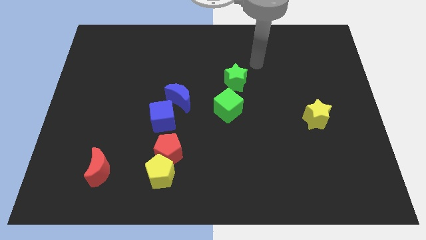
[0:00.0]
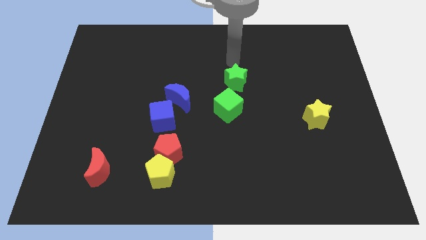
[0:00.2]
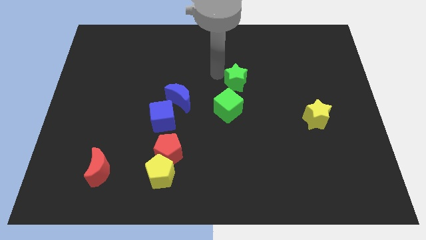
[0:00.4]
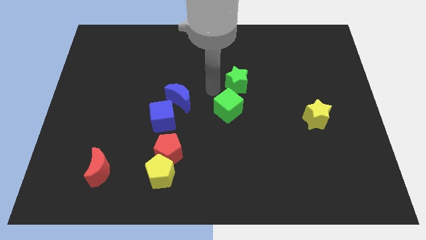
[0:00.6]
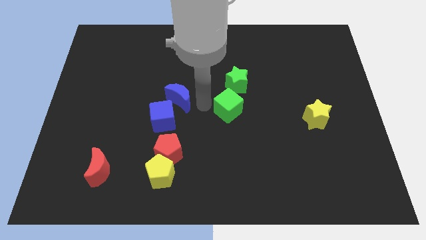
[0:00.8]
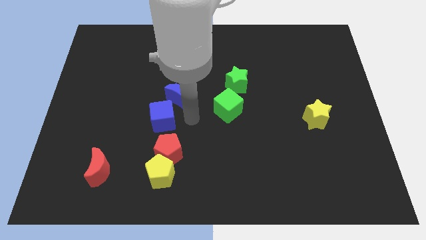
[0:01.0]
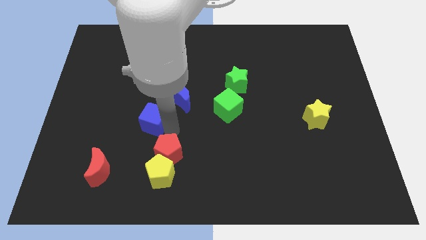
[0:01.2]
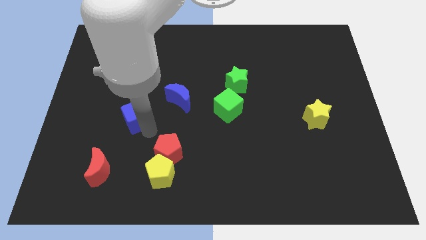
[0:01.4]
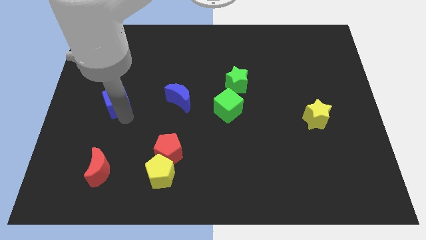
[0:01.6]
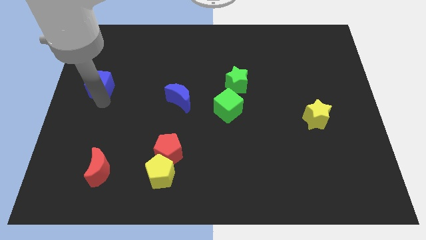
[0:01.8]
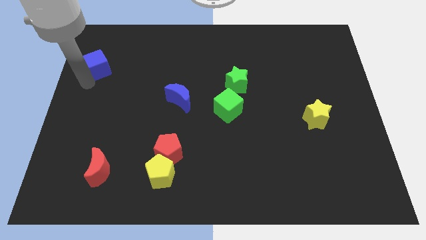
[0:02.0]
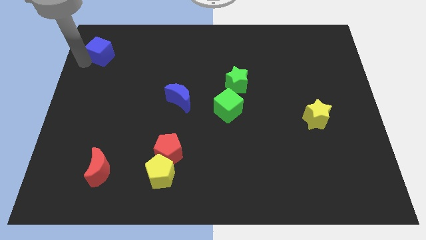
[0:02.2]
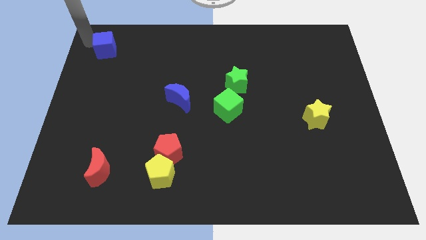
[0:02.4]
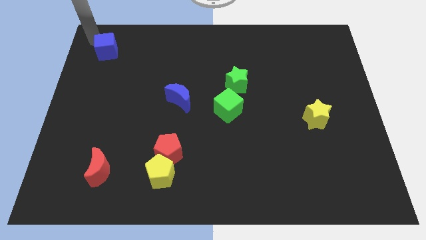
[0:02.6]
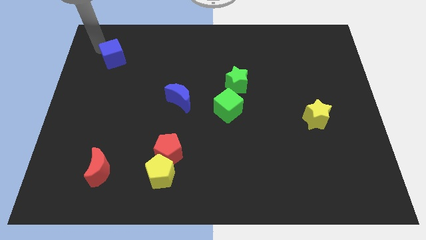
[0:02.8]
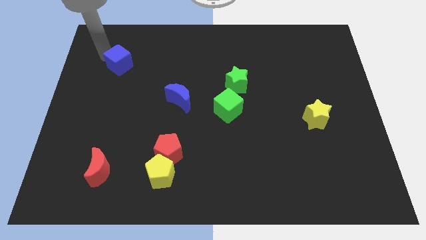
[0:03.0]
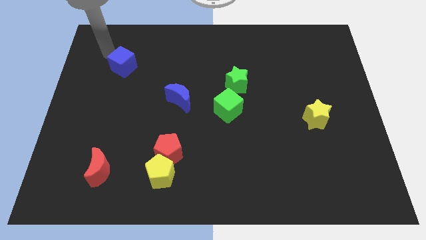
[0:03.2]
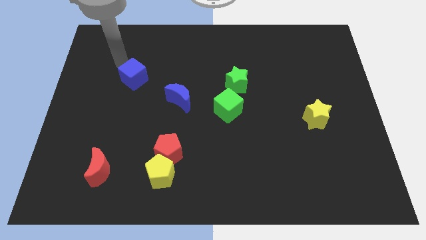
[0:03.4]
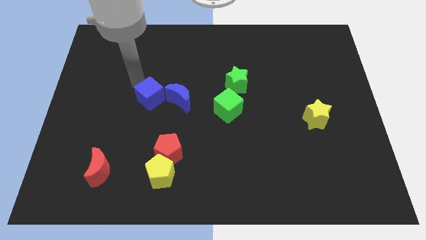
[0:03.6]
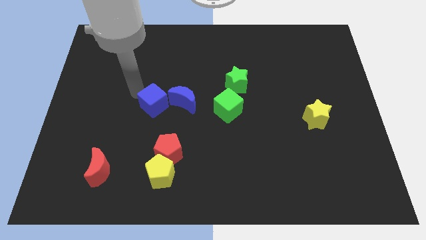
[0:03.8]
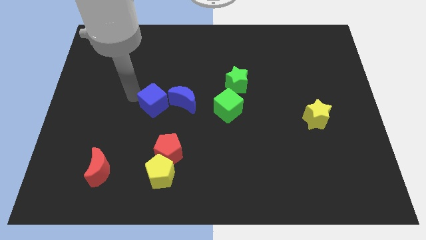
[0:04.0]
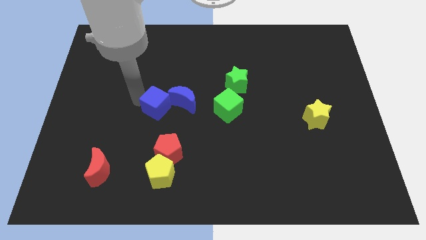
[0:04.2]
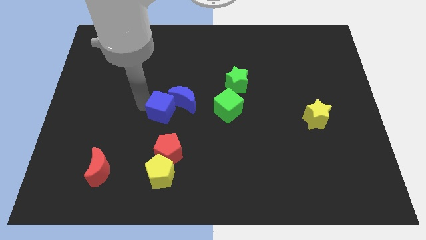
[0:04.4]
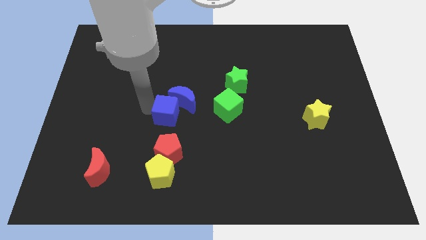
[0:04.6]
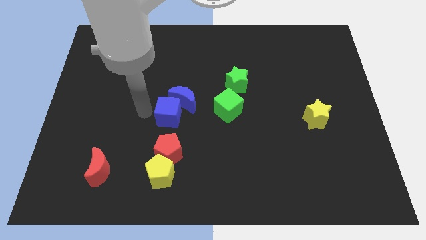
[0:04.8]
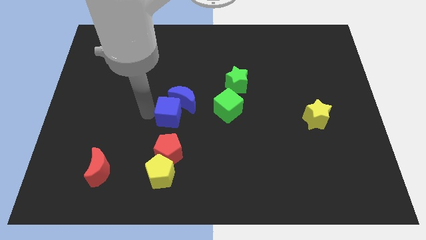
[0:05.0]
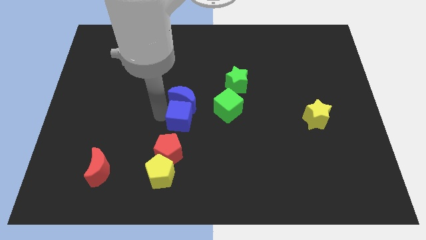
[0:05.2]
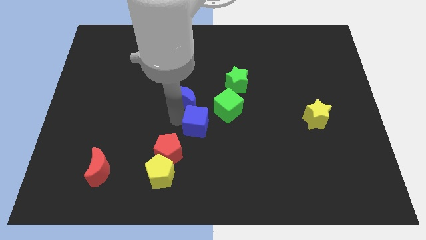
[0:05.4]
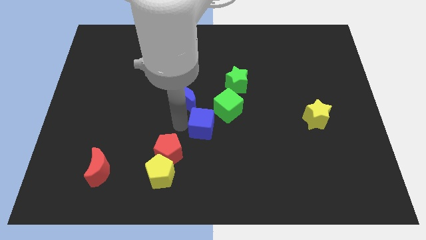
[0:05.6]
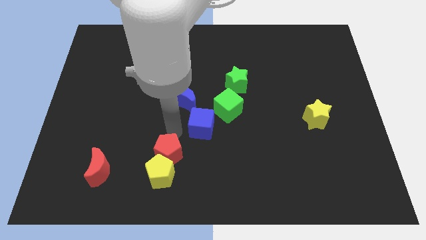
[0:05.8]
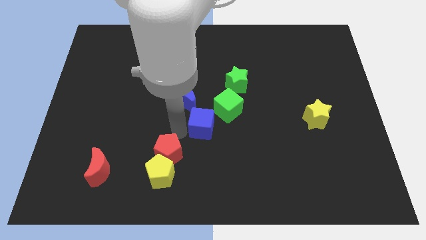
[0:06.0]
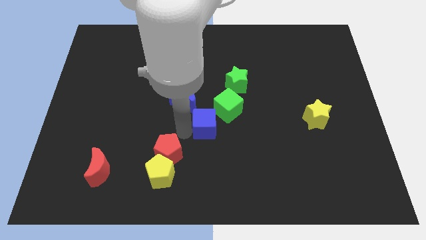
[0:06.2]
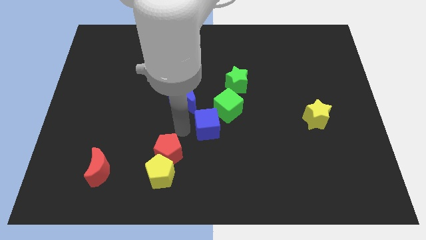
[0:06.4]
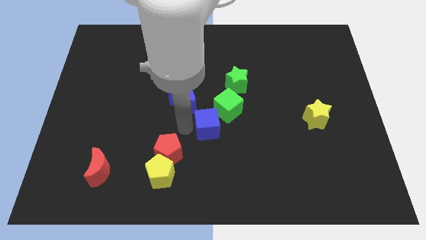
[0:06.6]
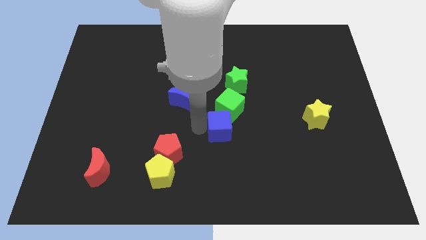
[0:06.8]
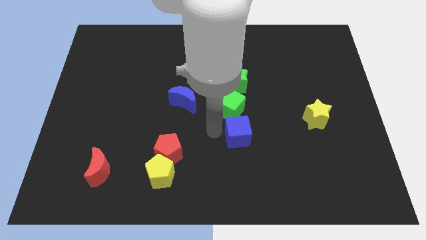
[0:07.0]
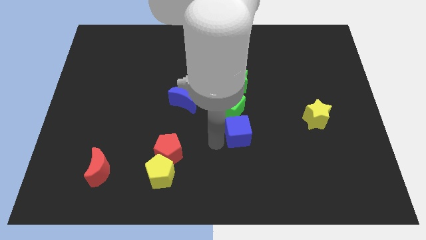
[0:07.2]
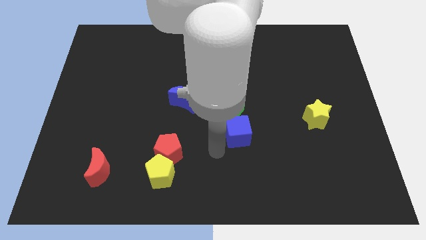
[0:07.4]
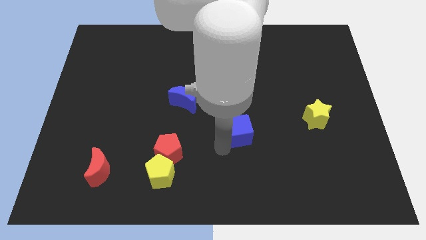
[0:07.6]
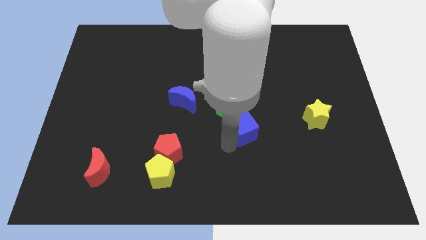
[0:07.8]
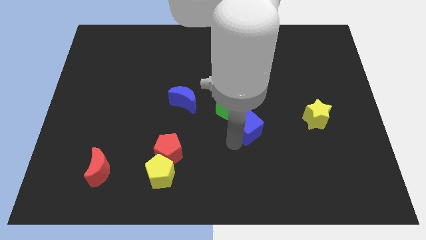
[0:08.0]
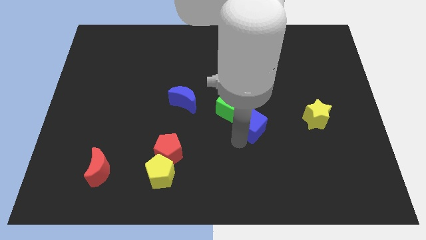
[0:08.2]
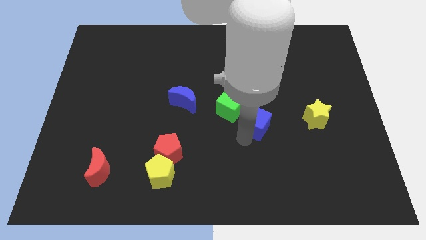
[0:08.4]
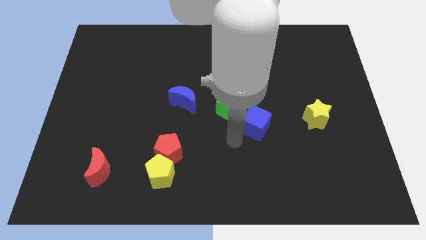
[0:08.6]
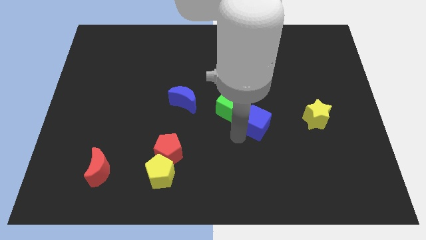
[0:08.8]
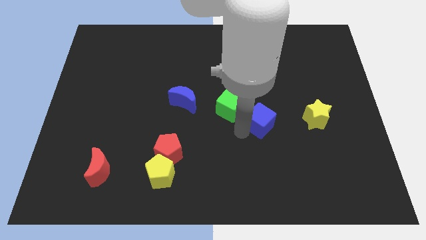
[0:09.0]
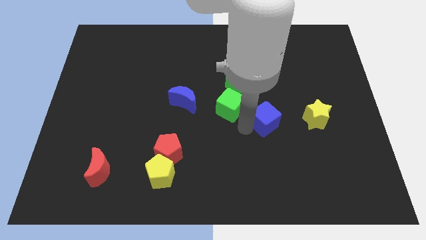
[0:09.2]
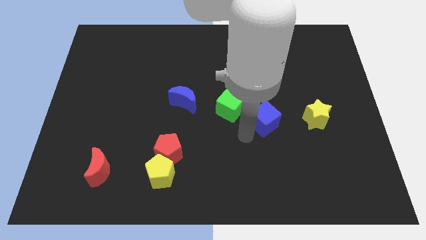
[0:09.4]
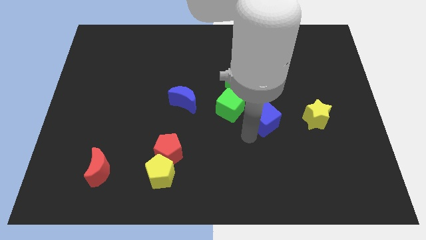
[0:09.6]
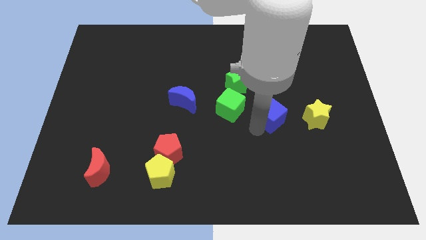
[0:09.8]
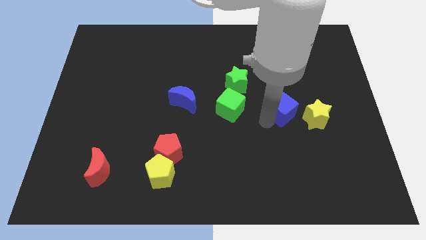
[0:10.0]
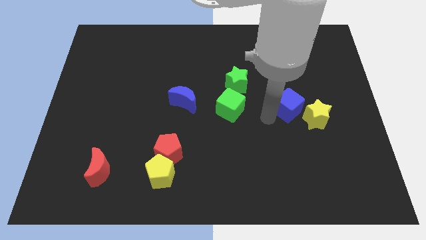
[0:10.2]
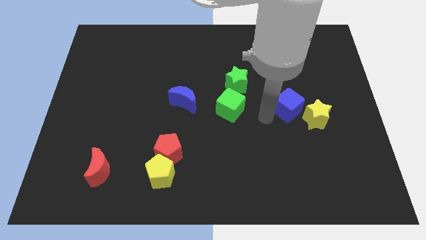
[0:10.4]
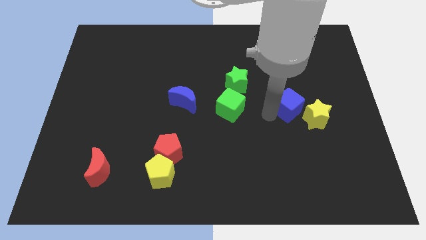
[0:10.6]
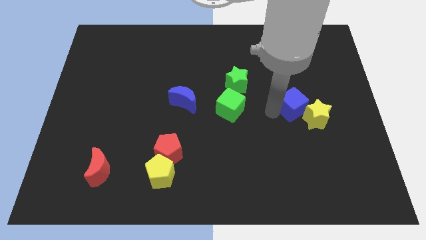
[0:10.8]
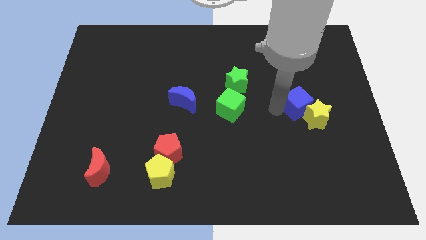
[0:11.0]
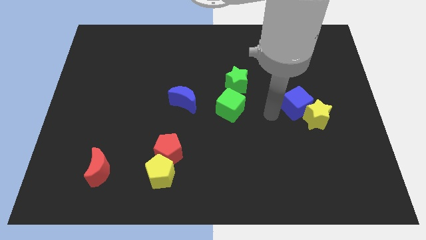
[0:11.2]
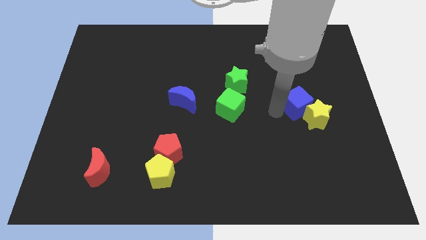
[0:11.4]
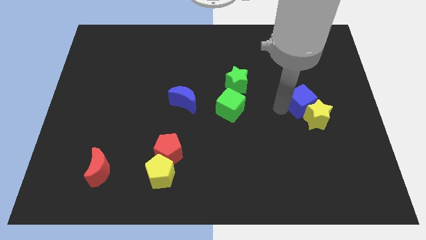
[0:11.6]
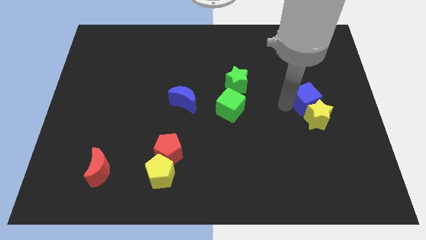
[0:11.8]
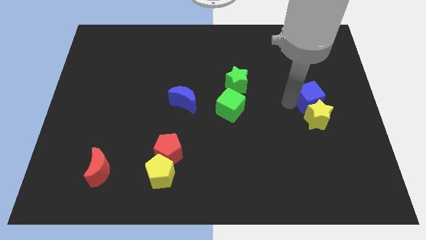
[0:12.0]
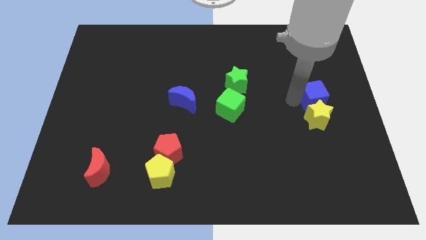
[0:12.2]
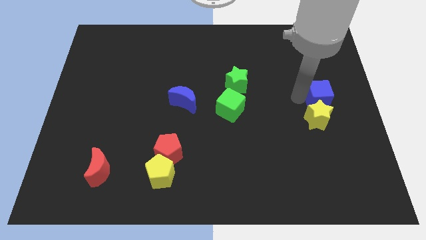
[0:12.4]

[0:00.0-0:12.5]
move the blue cube to the right side of the board
